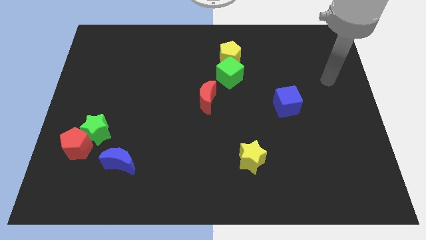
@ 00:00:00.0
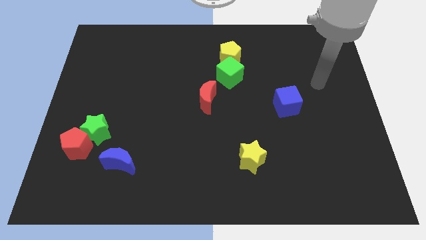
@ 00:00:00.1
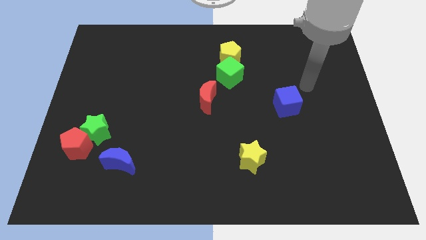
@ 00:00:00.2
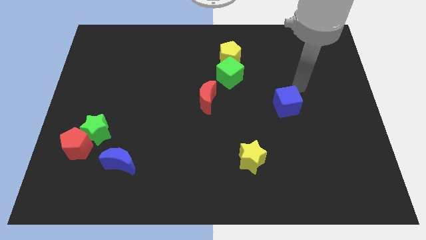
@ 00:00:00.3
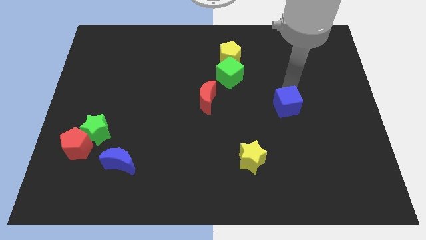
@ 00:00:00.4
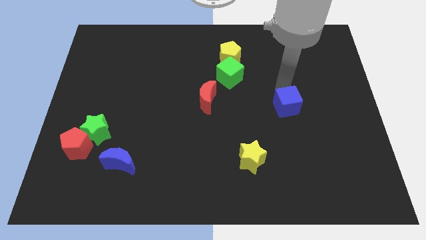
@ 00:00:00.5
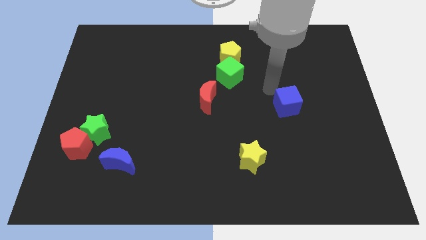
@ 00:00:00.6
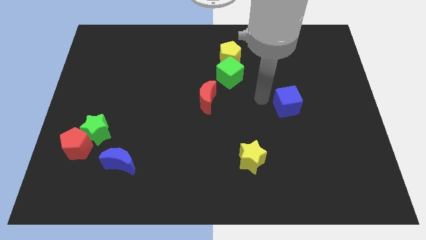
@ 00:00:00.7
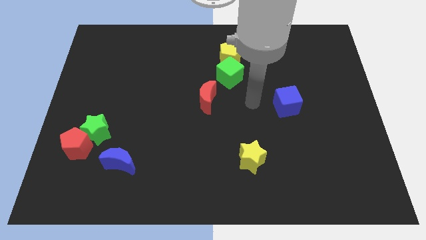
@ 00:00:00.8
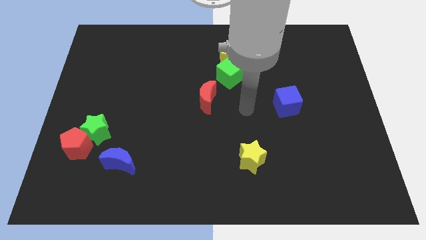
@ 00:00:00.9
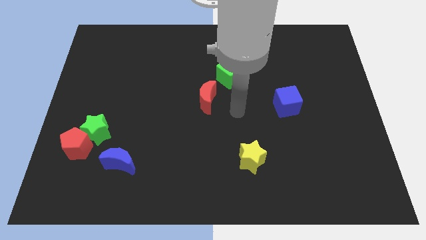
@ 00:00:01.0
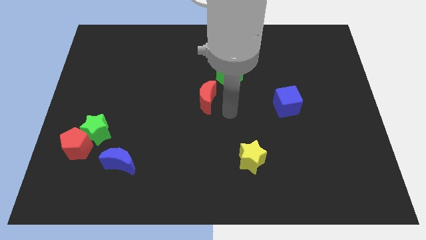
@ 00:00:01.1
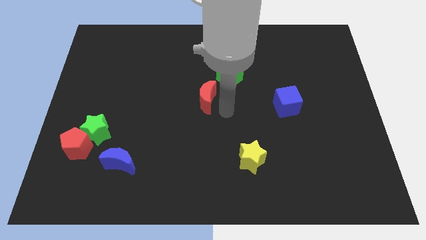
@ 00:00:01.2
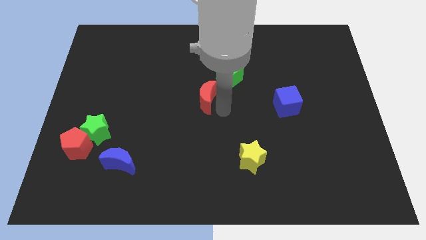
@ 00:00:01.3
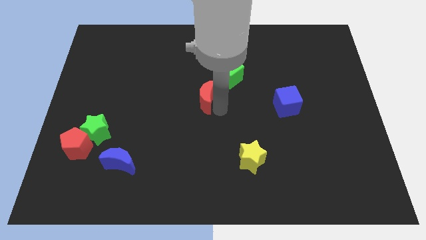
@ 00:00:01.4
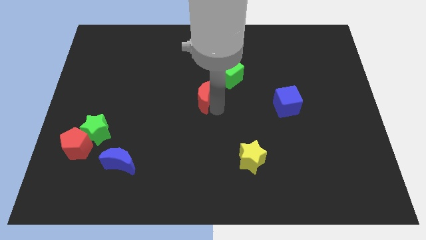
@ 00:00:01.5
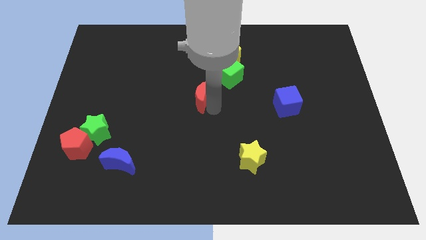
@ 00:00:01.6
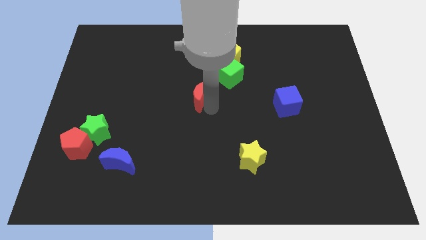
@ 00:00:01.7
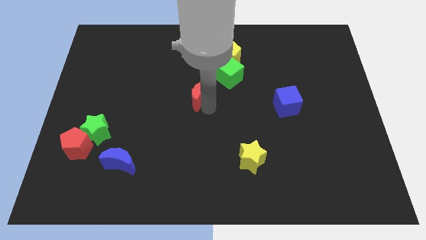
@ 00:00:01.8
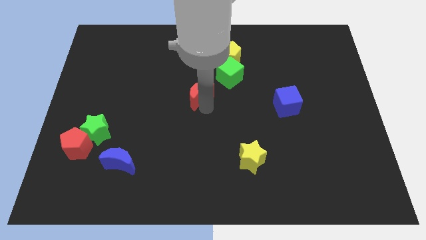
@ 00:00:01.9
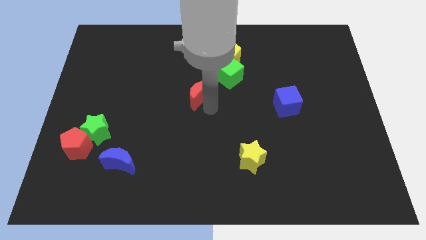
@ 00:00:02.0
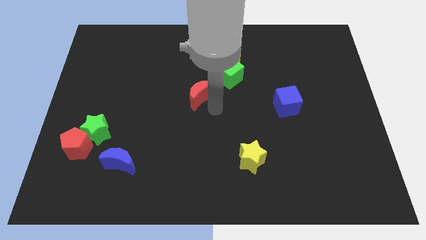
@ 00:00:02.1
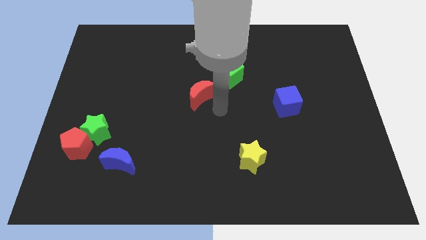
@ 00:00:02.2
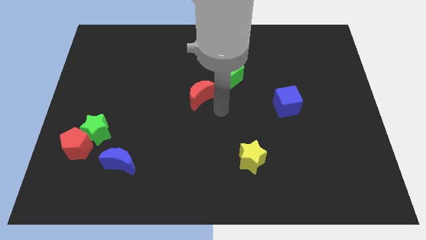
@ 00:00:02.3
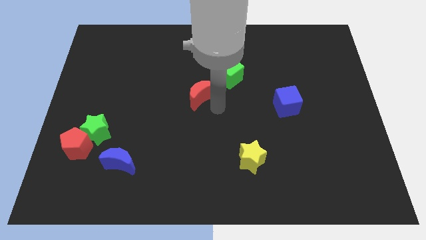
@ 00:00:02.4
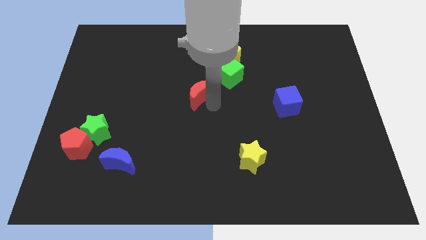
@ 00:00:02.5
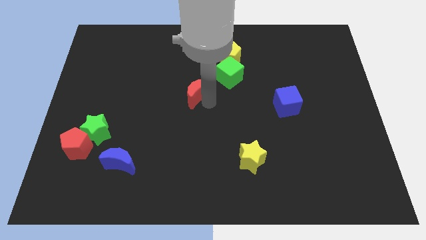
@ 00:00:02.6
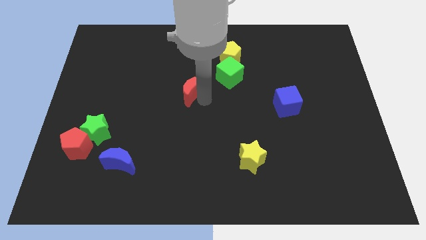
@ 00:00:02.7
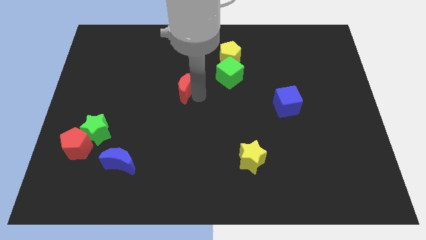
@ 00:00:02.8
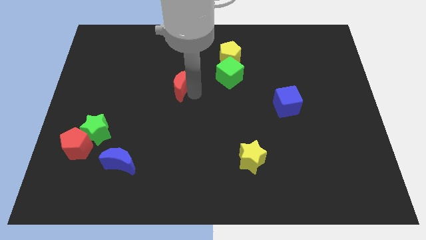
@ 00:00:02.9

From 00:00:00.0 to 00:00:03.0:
slightly move the red moon up and left diagonally

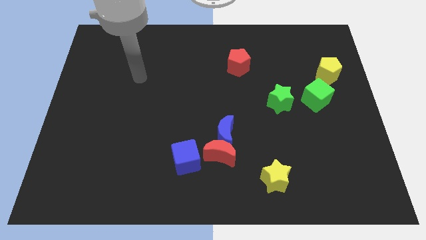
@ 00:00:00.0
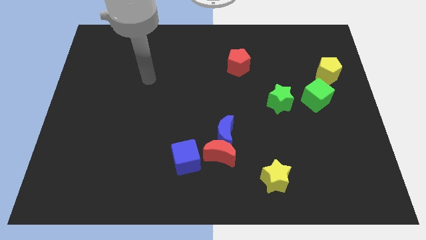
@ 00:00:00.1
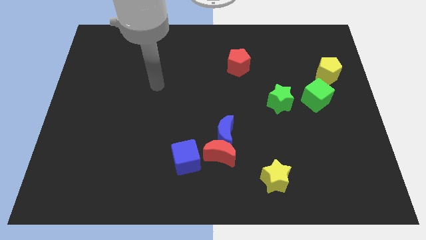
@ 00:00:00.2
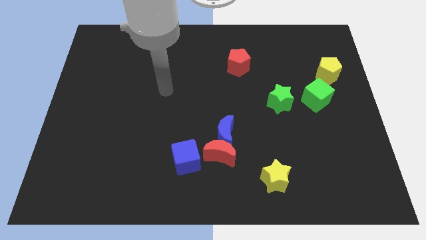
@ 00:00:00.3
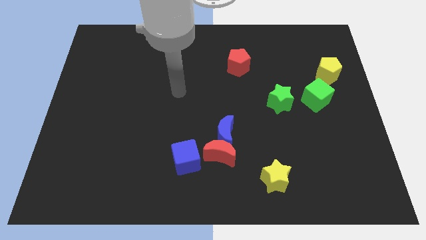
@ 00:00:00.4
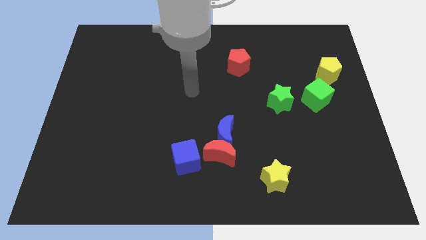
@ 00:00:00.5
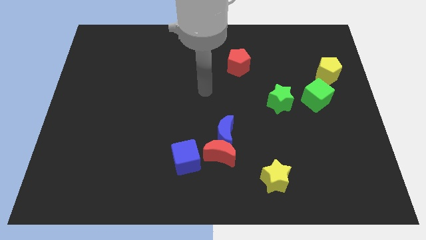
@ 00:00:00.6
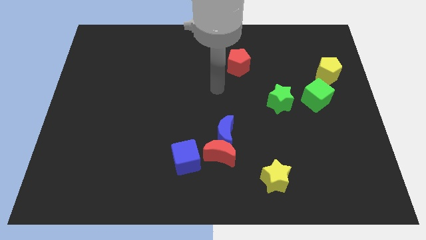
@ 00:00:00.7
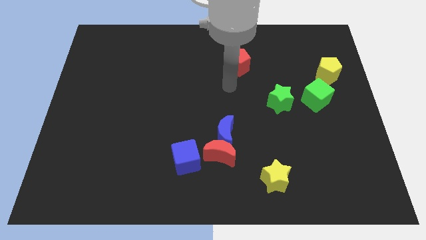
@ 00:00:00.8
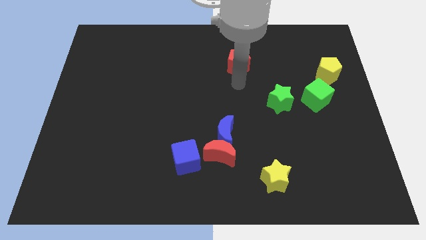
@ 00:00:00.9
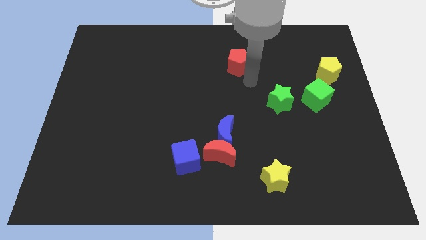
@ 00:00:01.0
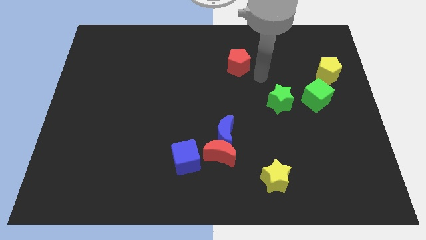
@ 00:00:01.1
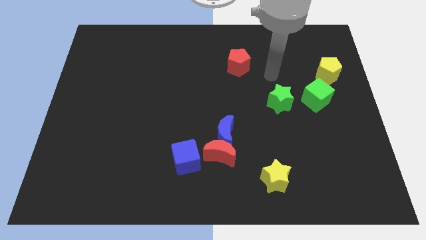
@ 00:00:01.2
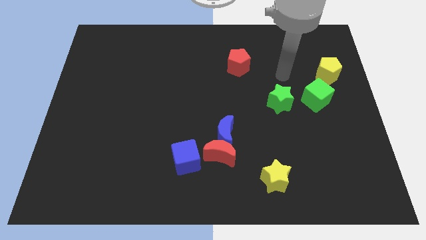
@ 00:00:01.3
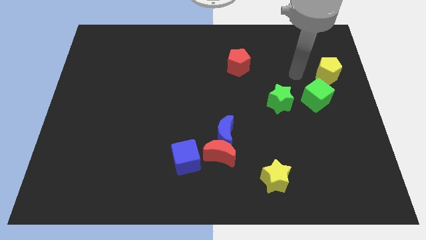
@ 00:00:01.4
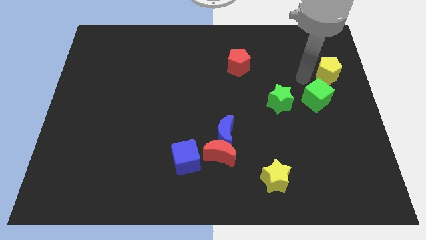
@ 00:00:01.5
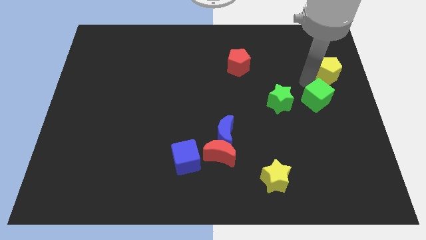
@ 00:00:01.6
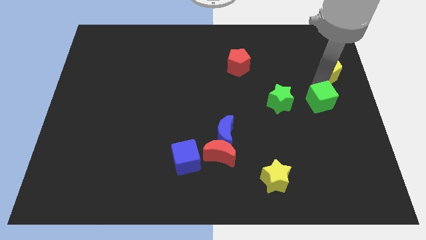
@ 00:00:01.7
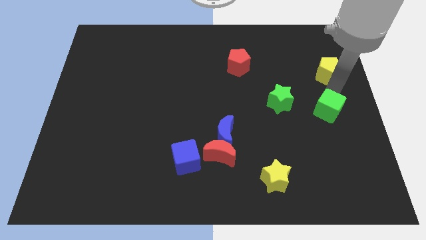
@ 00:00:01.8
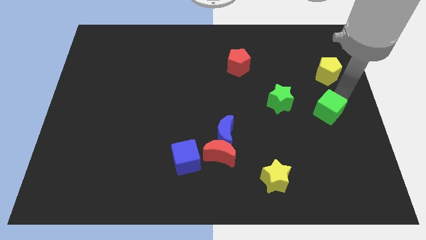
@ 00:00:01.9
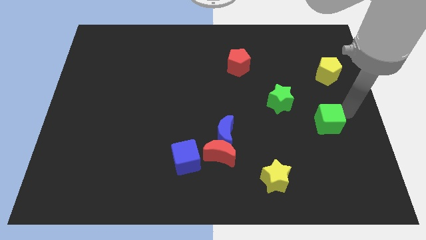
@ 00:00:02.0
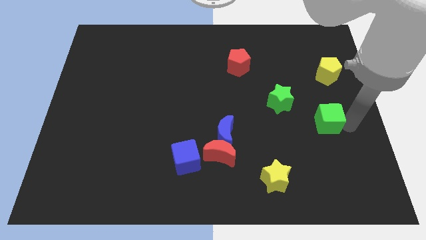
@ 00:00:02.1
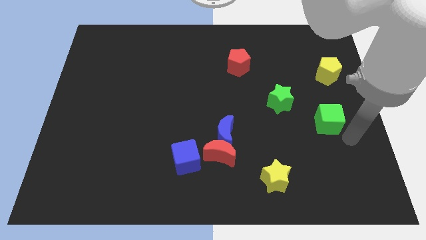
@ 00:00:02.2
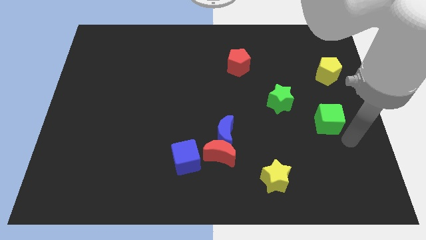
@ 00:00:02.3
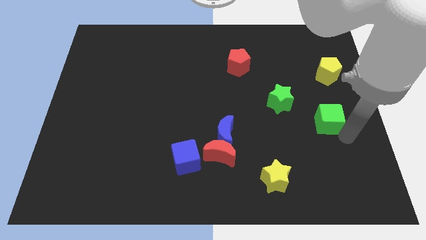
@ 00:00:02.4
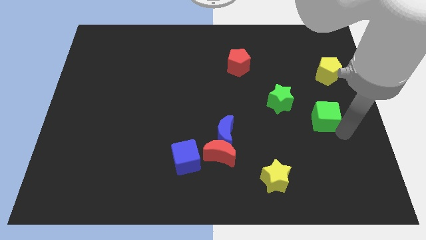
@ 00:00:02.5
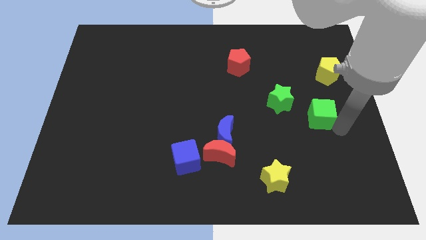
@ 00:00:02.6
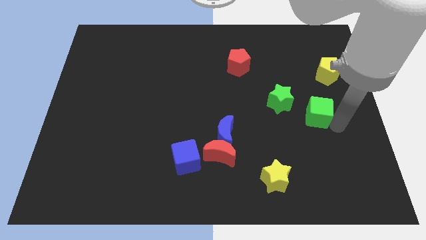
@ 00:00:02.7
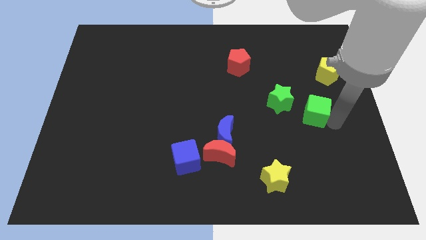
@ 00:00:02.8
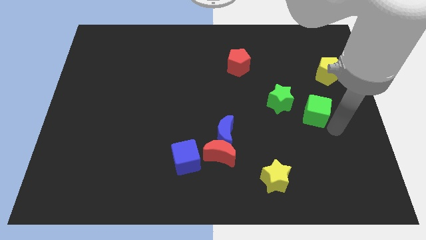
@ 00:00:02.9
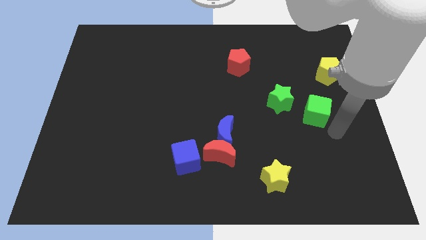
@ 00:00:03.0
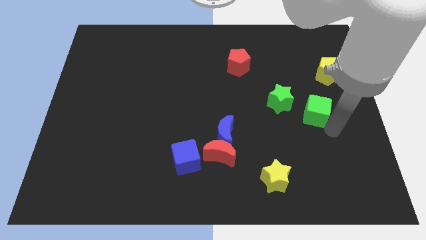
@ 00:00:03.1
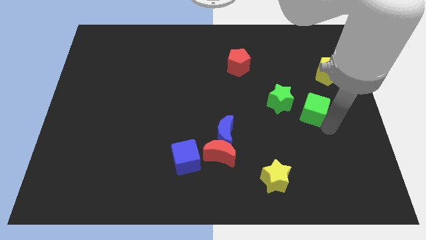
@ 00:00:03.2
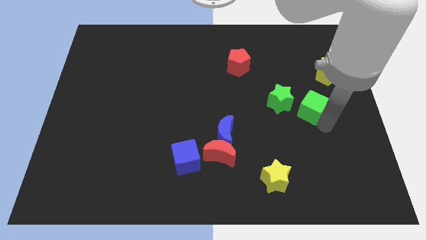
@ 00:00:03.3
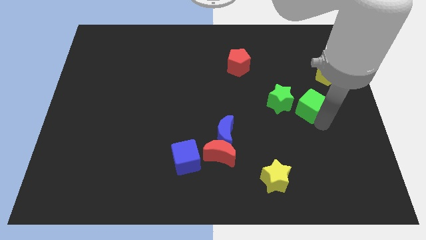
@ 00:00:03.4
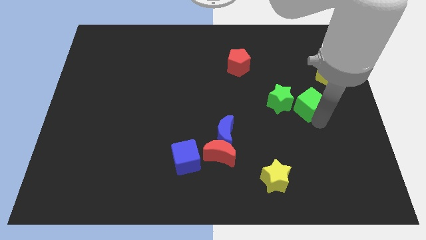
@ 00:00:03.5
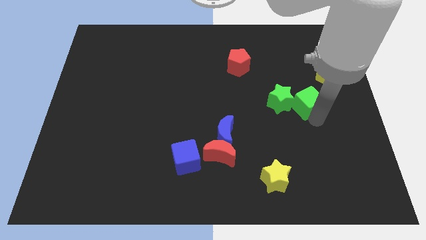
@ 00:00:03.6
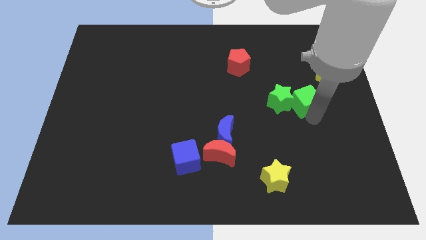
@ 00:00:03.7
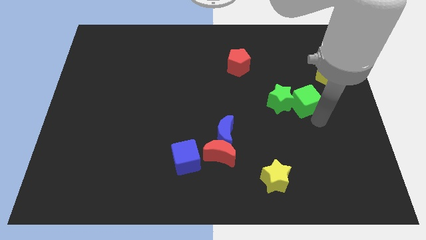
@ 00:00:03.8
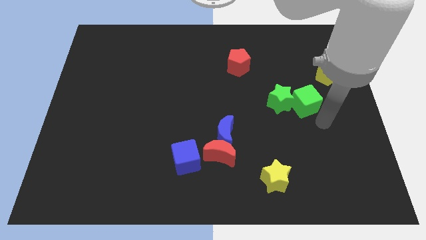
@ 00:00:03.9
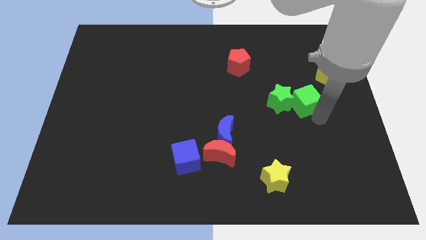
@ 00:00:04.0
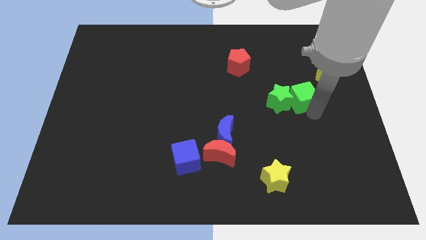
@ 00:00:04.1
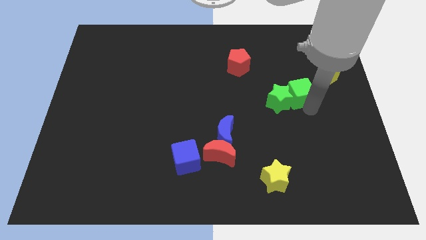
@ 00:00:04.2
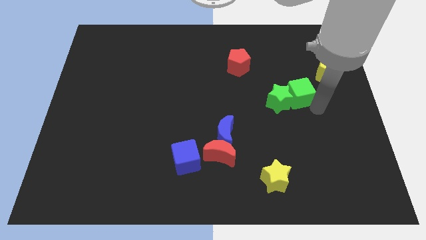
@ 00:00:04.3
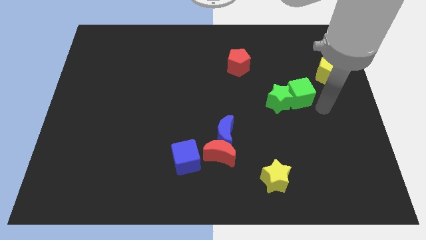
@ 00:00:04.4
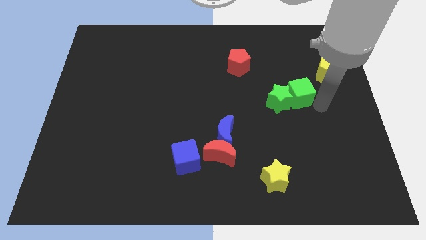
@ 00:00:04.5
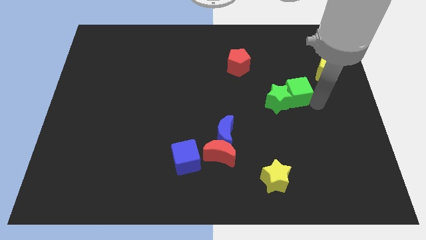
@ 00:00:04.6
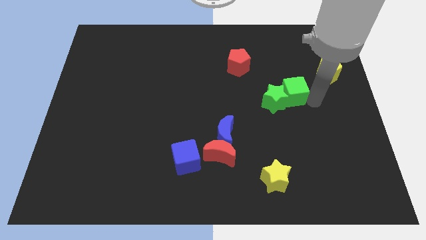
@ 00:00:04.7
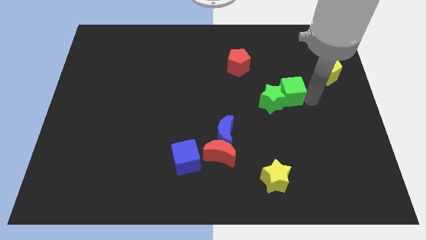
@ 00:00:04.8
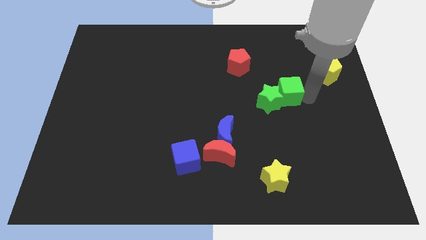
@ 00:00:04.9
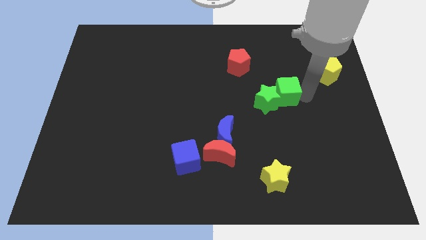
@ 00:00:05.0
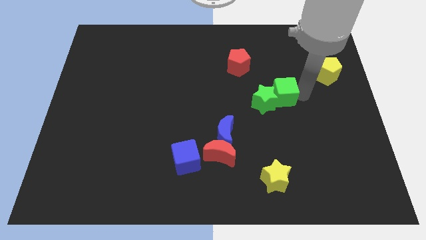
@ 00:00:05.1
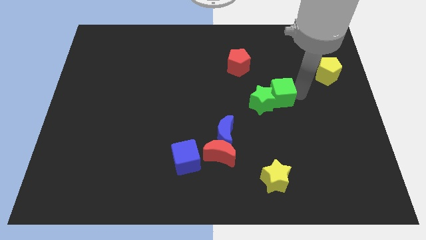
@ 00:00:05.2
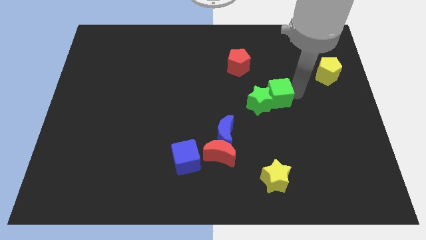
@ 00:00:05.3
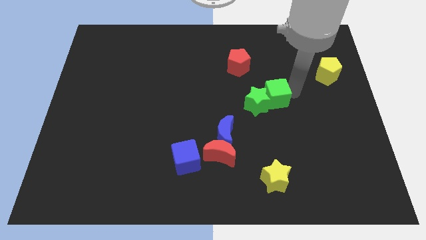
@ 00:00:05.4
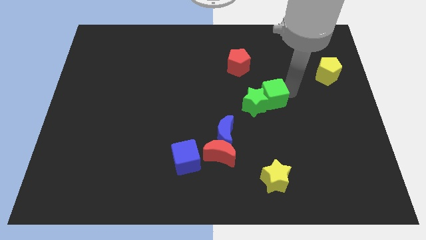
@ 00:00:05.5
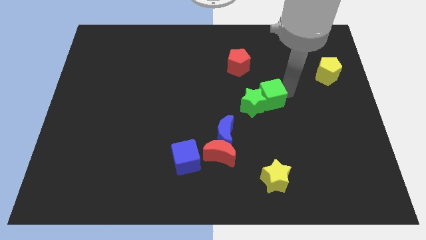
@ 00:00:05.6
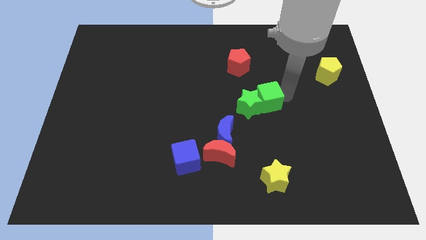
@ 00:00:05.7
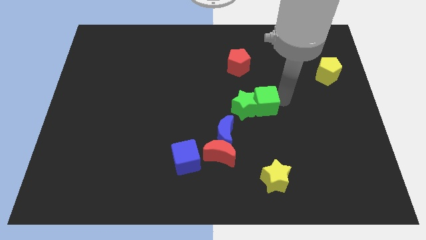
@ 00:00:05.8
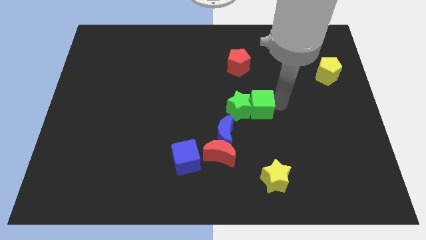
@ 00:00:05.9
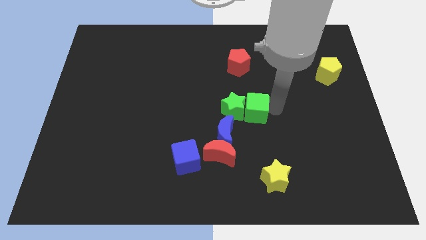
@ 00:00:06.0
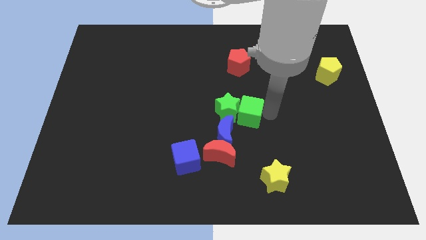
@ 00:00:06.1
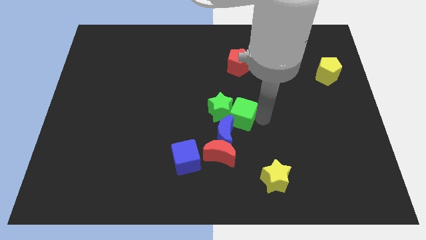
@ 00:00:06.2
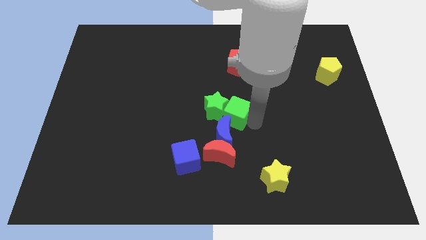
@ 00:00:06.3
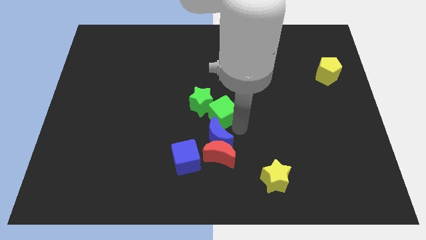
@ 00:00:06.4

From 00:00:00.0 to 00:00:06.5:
slide the green cube left
